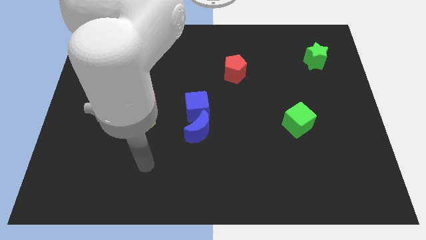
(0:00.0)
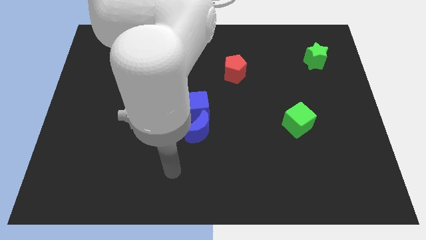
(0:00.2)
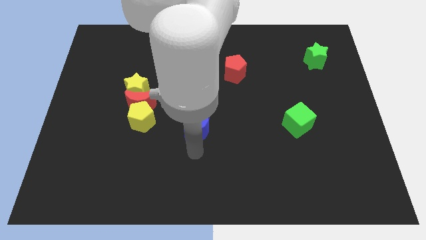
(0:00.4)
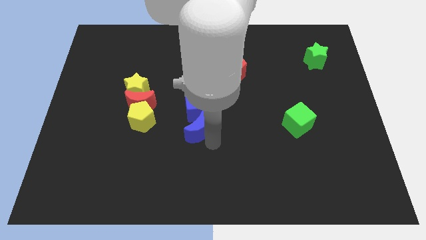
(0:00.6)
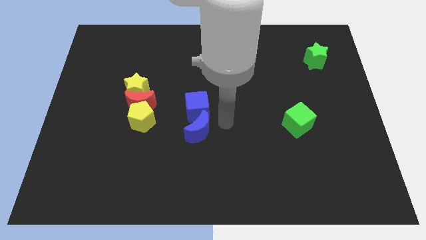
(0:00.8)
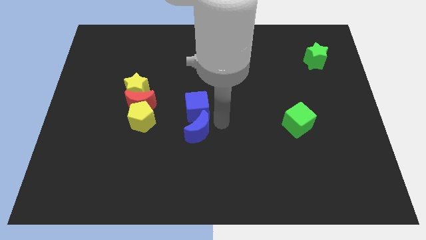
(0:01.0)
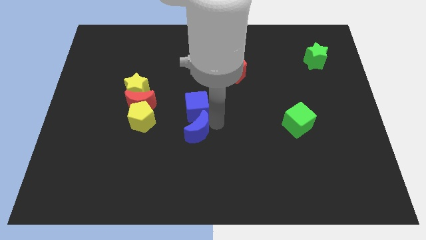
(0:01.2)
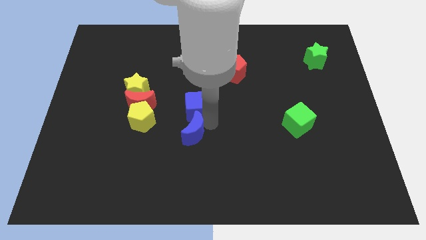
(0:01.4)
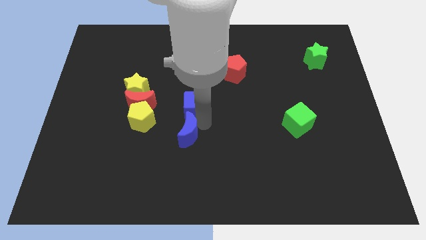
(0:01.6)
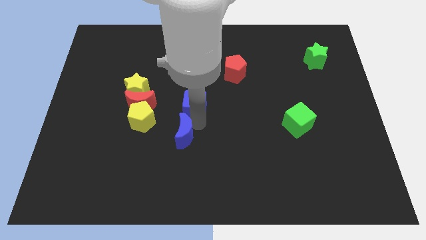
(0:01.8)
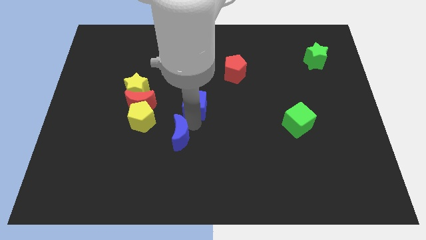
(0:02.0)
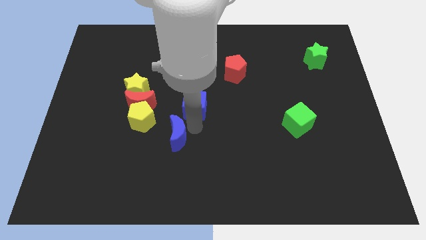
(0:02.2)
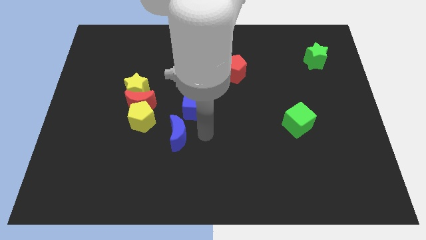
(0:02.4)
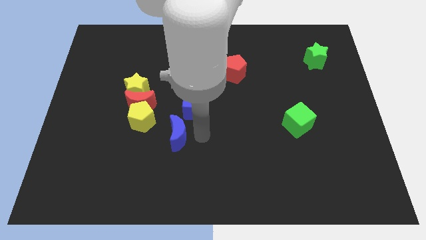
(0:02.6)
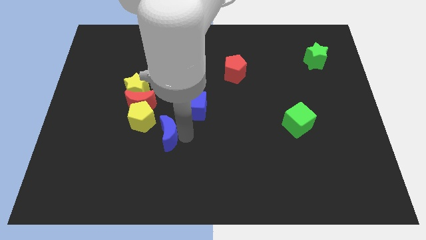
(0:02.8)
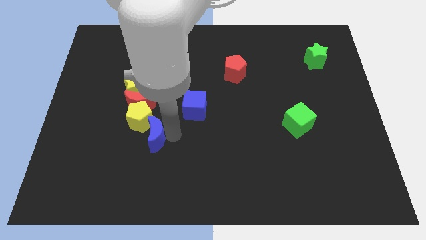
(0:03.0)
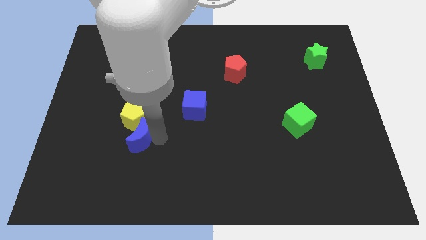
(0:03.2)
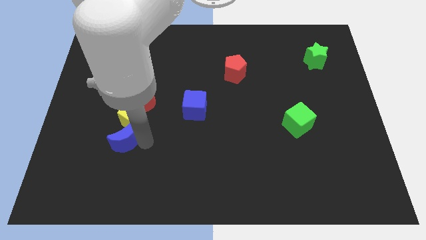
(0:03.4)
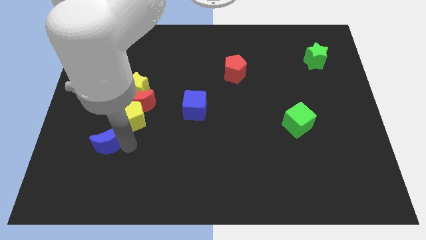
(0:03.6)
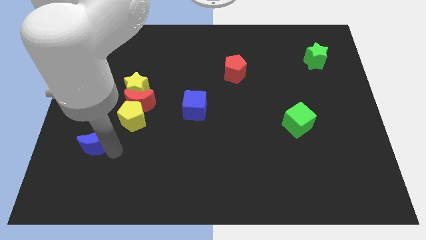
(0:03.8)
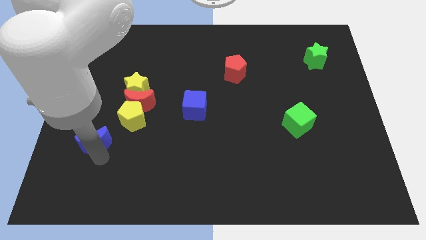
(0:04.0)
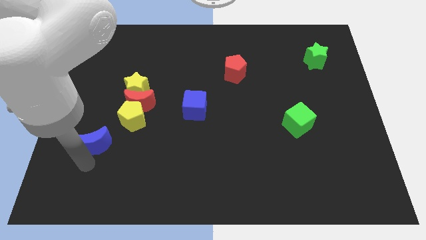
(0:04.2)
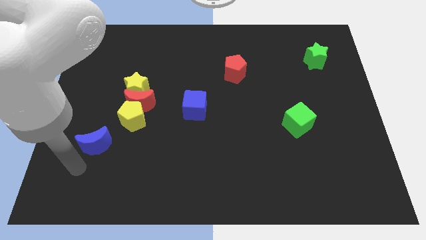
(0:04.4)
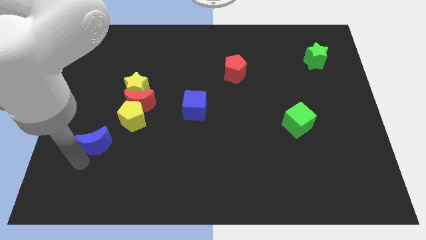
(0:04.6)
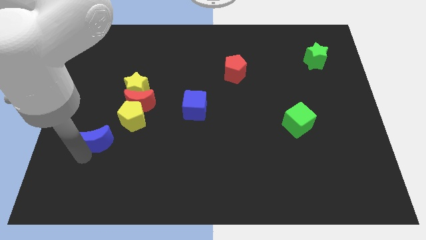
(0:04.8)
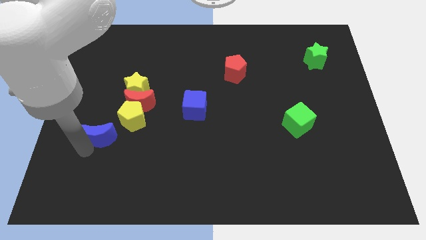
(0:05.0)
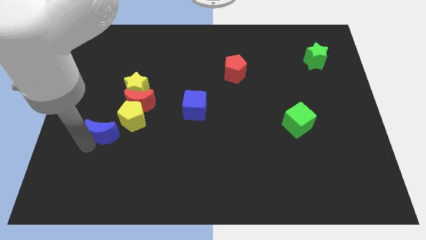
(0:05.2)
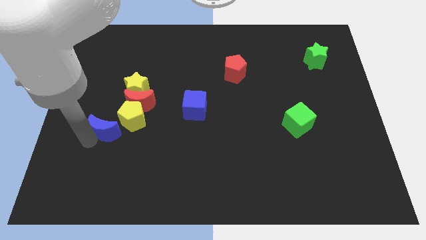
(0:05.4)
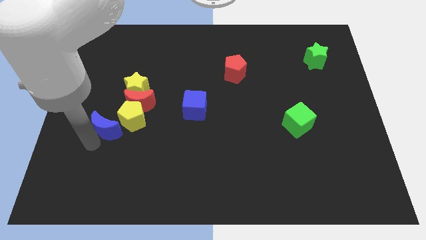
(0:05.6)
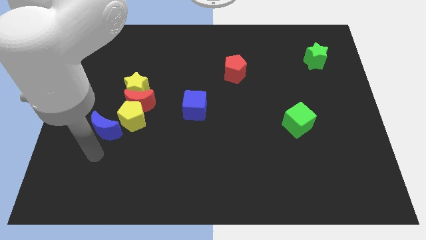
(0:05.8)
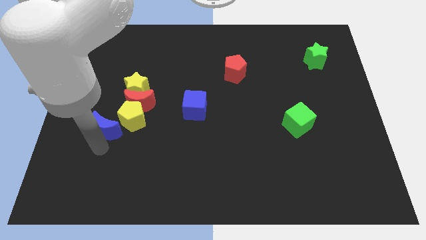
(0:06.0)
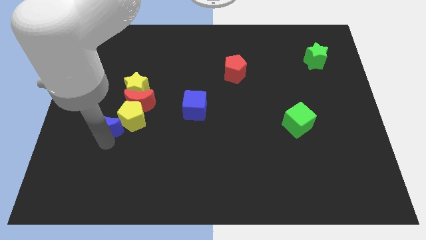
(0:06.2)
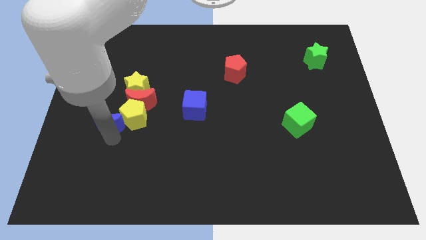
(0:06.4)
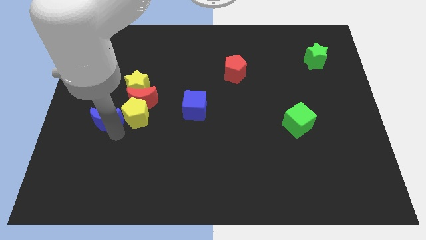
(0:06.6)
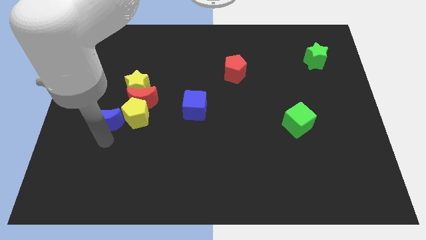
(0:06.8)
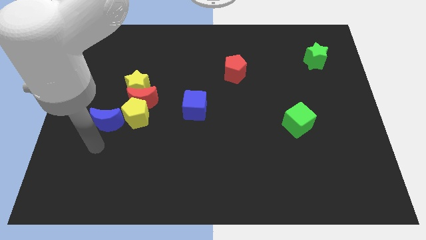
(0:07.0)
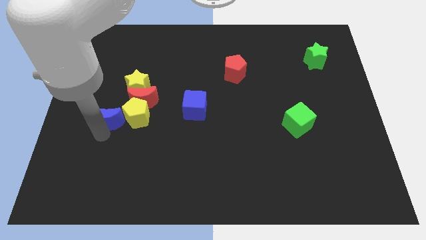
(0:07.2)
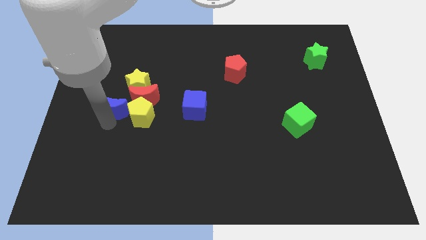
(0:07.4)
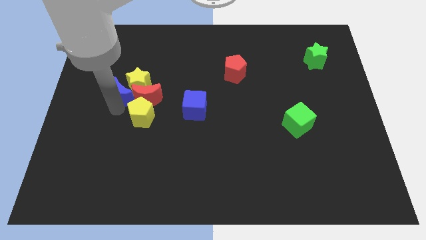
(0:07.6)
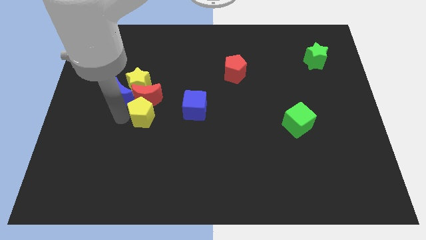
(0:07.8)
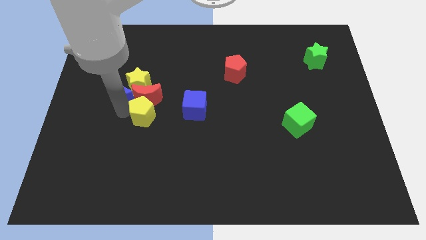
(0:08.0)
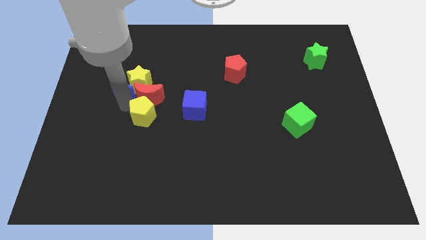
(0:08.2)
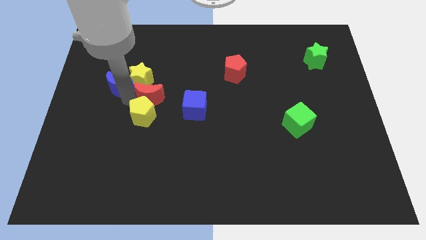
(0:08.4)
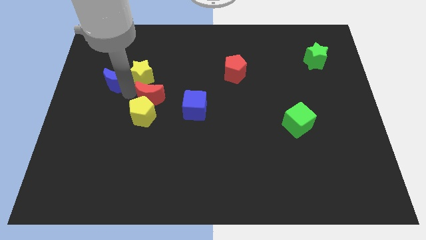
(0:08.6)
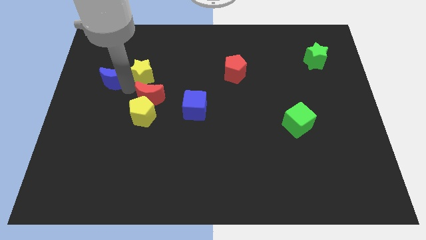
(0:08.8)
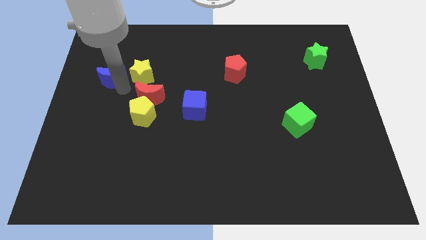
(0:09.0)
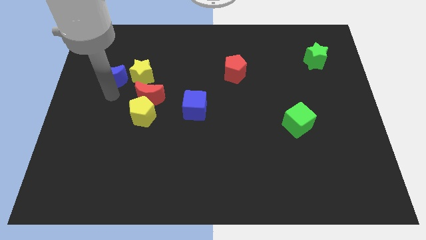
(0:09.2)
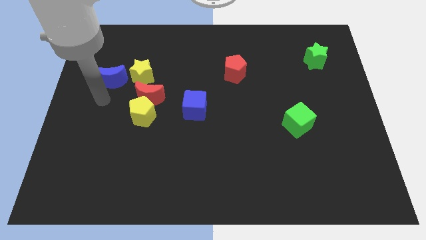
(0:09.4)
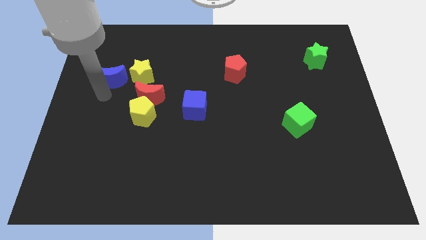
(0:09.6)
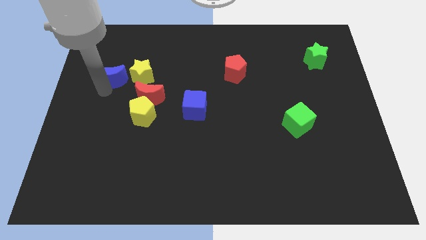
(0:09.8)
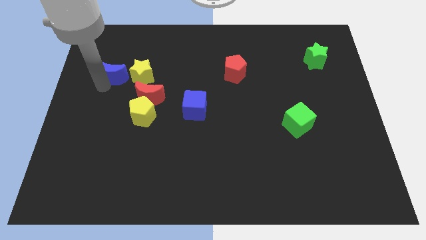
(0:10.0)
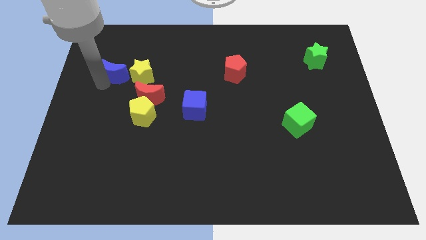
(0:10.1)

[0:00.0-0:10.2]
slide the blue moon diagonally up and to the left of the yellow star

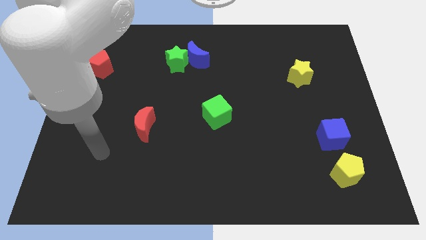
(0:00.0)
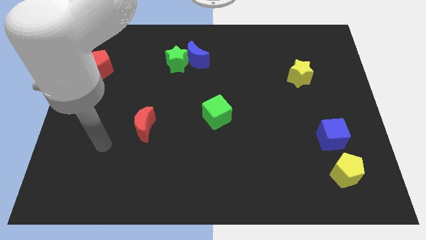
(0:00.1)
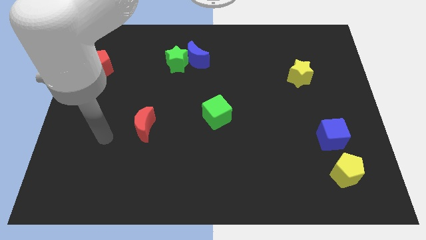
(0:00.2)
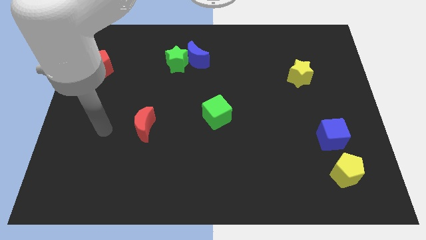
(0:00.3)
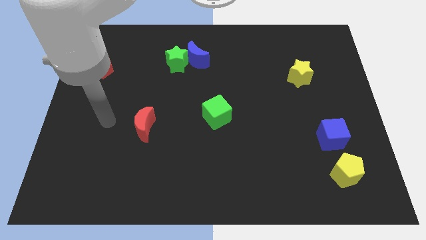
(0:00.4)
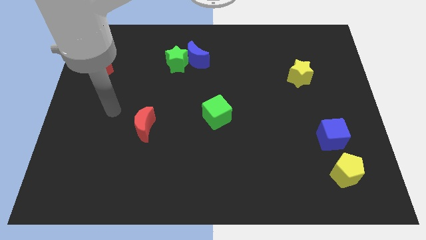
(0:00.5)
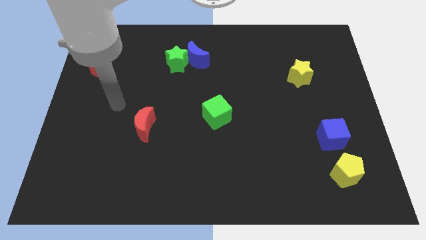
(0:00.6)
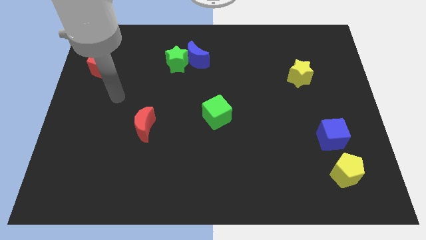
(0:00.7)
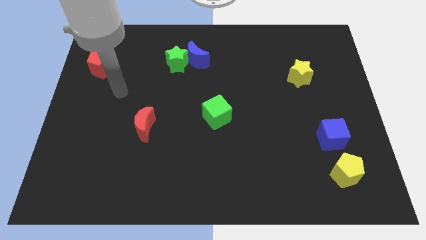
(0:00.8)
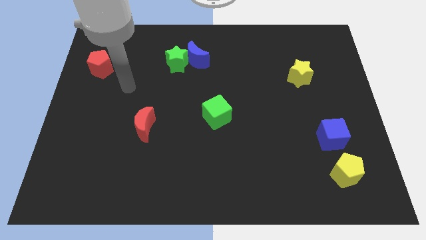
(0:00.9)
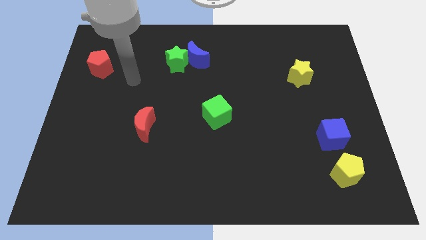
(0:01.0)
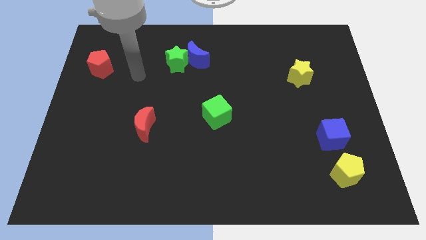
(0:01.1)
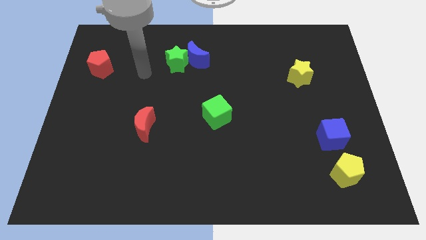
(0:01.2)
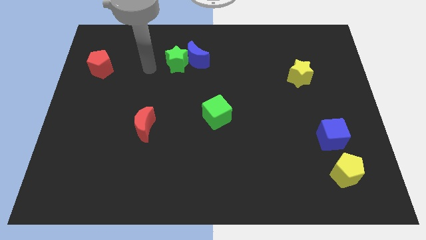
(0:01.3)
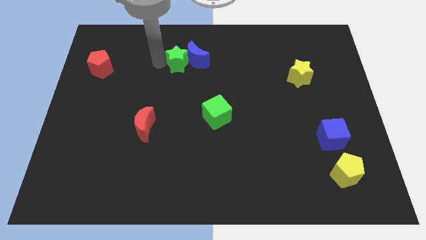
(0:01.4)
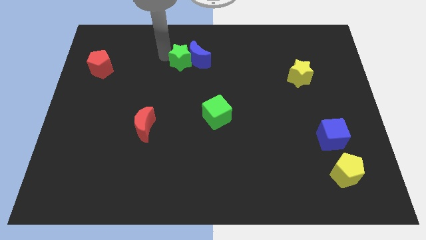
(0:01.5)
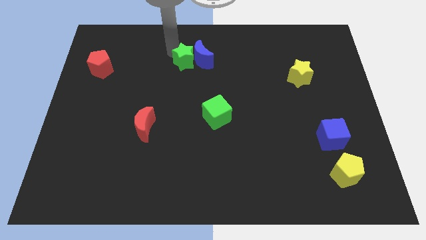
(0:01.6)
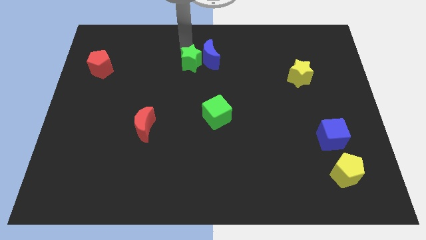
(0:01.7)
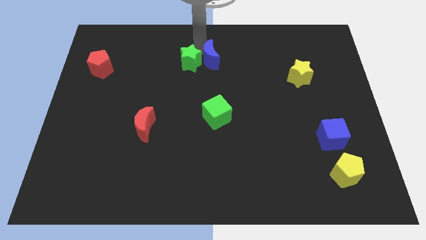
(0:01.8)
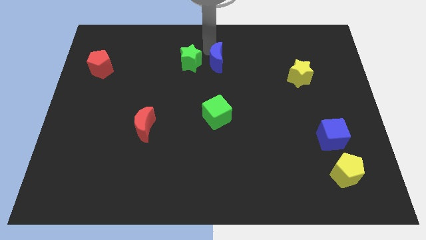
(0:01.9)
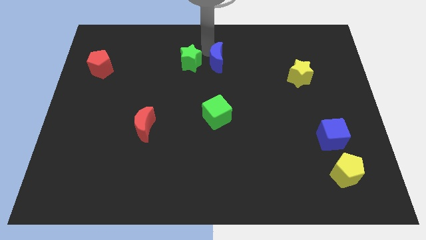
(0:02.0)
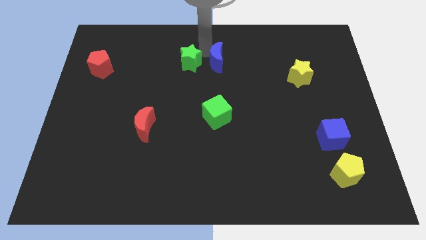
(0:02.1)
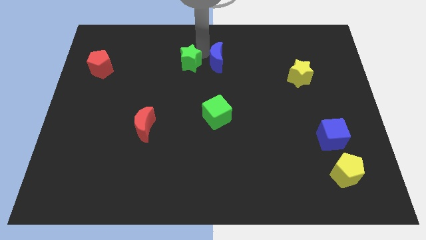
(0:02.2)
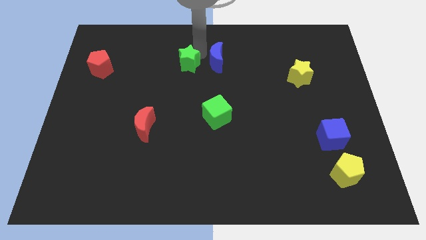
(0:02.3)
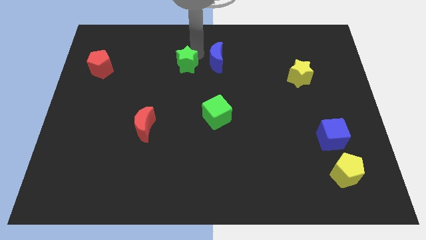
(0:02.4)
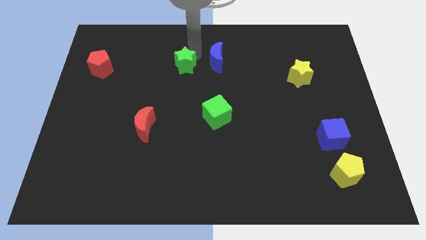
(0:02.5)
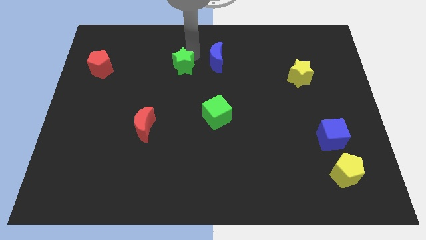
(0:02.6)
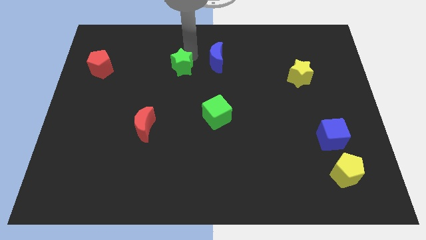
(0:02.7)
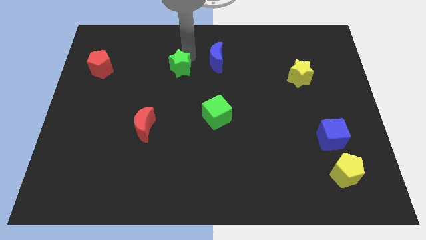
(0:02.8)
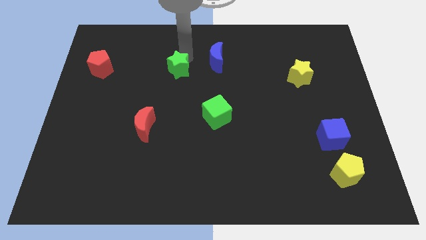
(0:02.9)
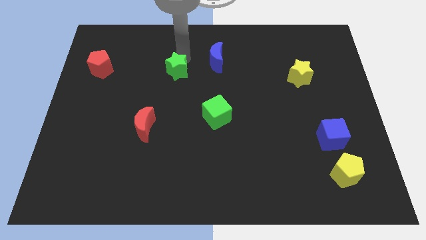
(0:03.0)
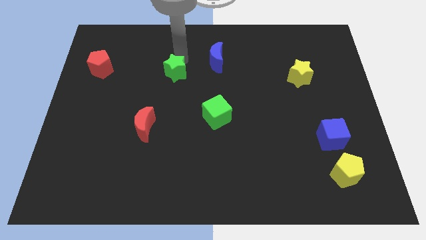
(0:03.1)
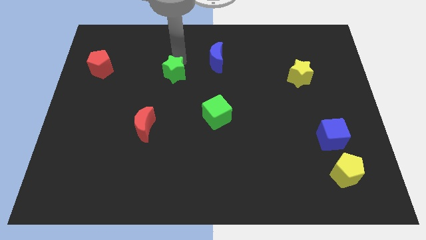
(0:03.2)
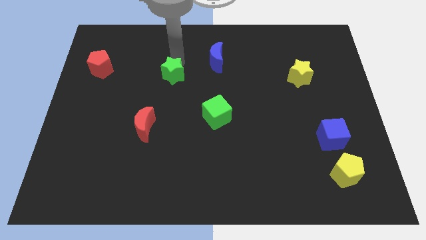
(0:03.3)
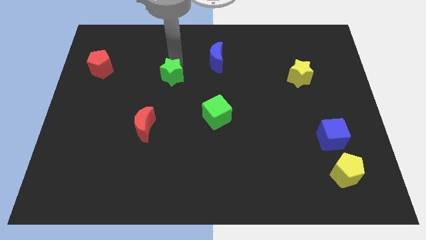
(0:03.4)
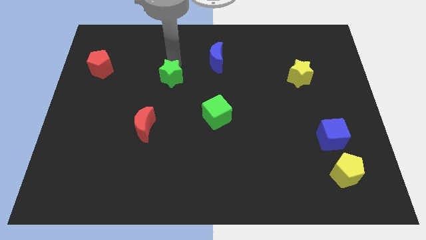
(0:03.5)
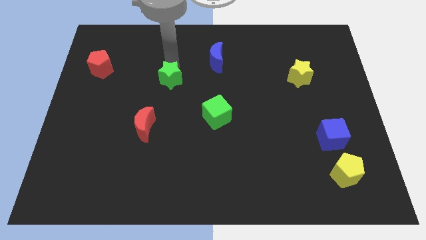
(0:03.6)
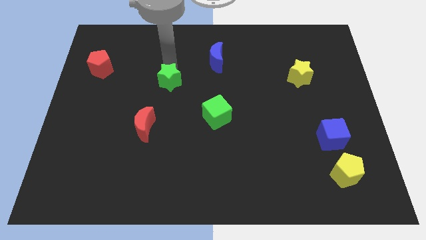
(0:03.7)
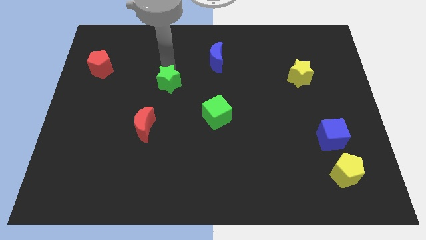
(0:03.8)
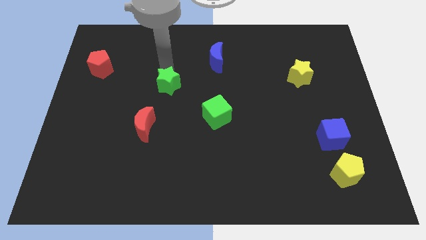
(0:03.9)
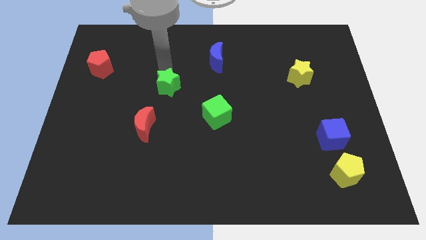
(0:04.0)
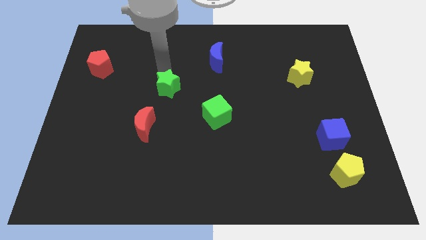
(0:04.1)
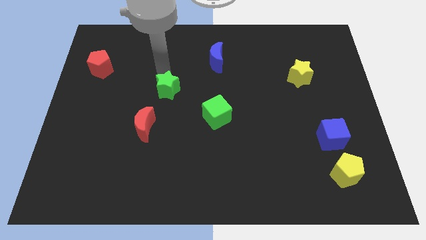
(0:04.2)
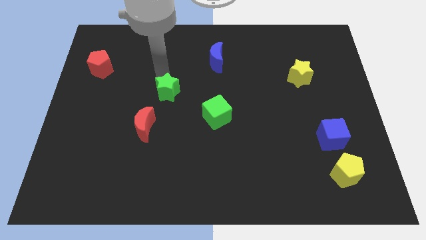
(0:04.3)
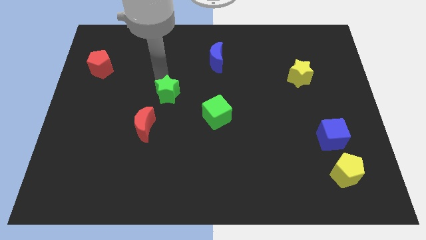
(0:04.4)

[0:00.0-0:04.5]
move the green star to the top right of the red moon
